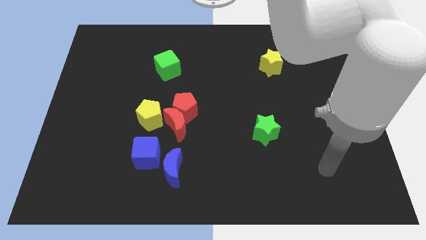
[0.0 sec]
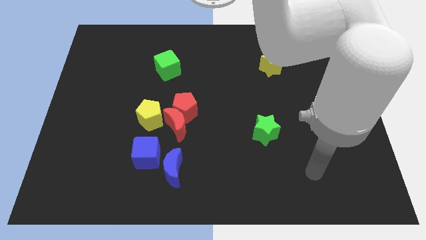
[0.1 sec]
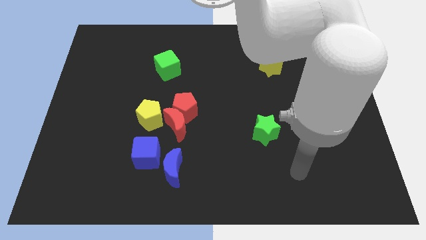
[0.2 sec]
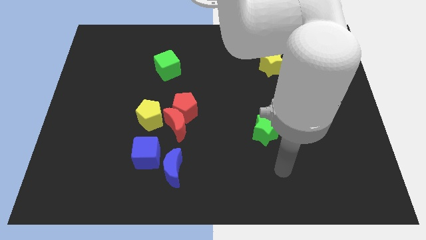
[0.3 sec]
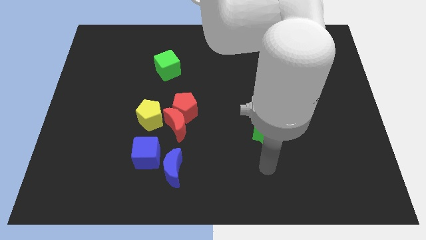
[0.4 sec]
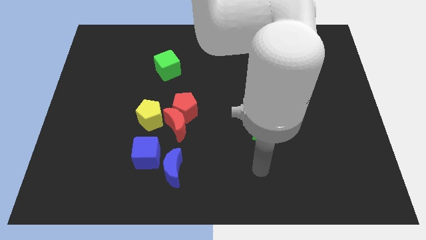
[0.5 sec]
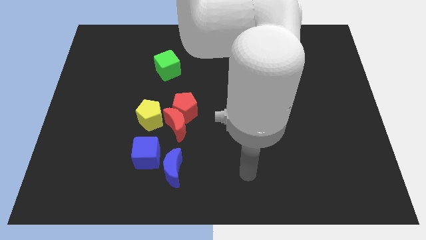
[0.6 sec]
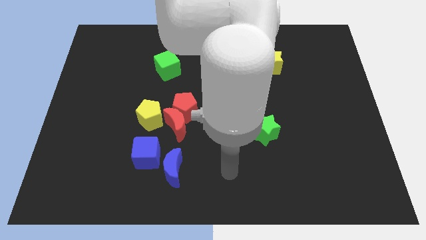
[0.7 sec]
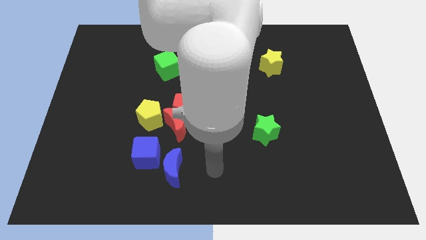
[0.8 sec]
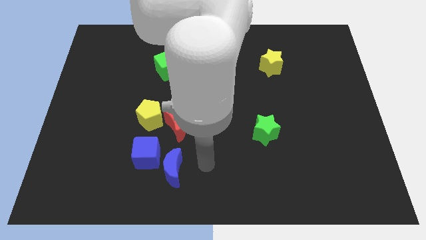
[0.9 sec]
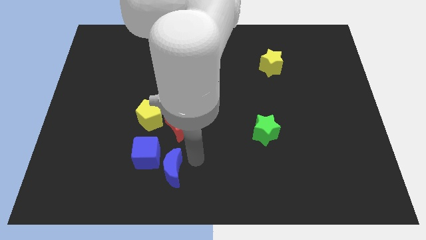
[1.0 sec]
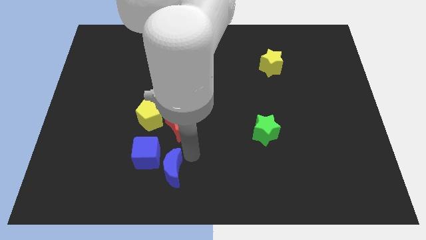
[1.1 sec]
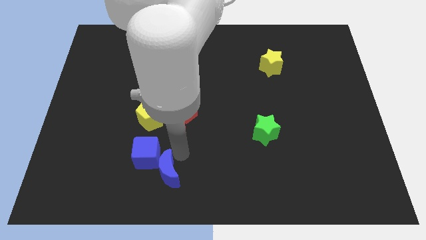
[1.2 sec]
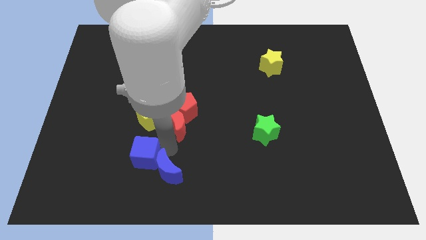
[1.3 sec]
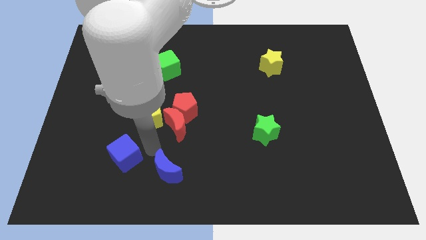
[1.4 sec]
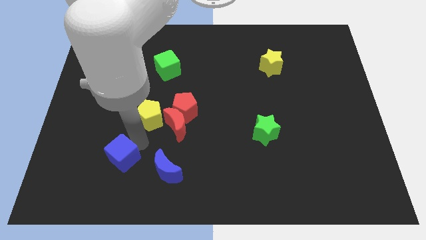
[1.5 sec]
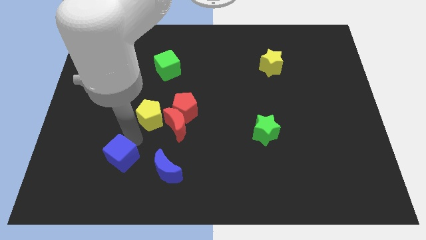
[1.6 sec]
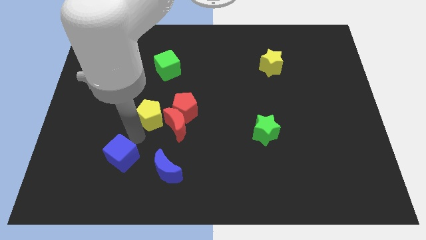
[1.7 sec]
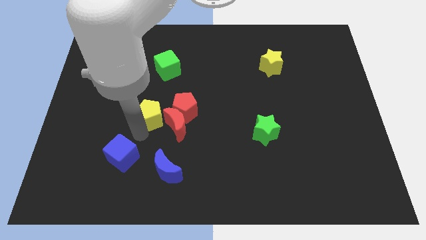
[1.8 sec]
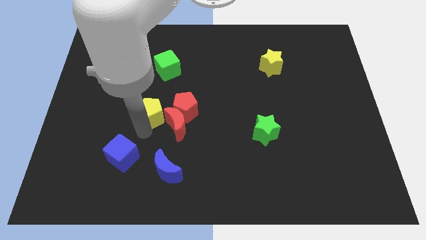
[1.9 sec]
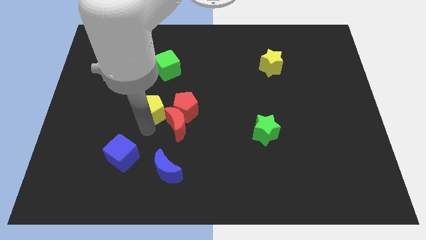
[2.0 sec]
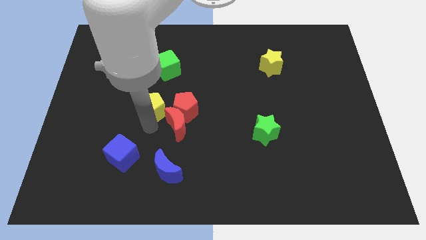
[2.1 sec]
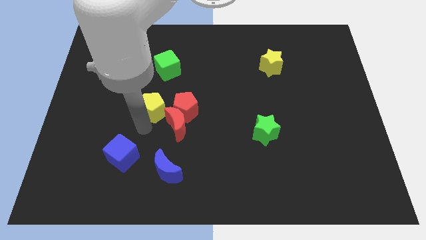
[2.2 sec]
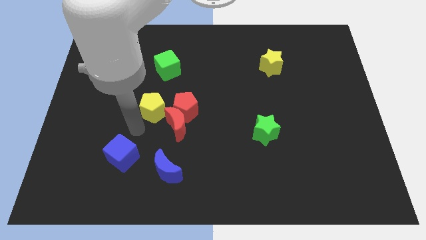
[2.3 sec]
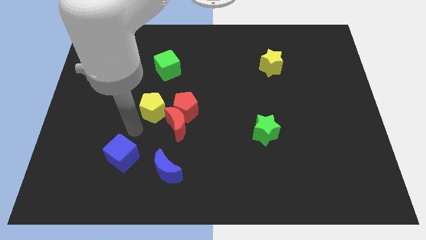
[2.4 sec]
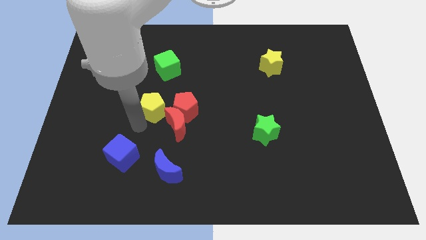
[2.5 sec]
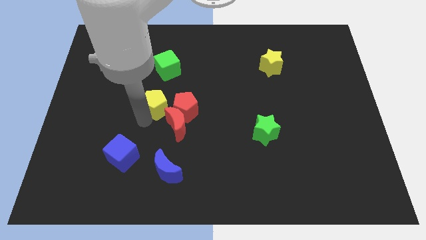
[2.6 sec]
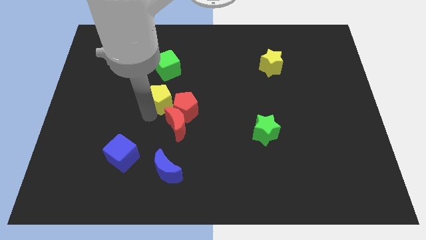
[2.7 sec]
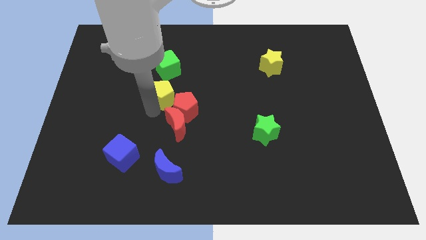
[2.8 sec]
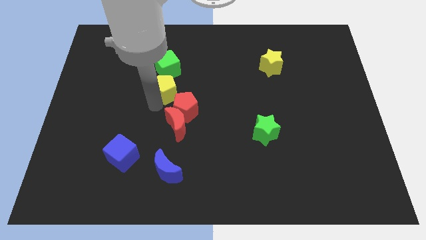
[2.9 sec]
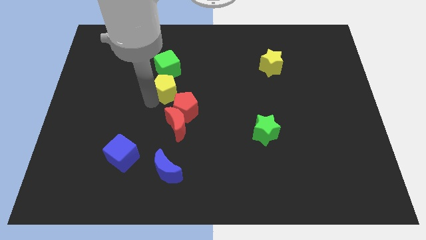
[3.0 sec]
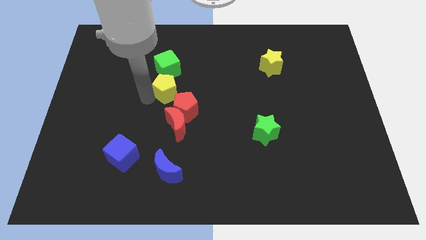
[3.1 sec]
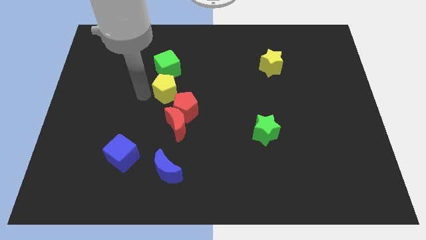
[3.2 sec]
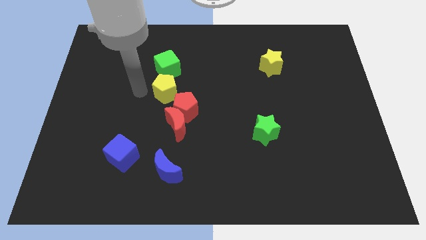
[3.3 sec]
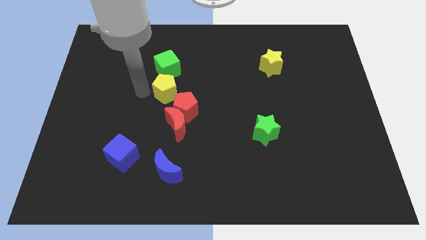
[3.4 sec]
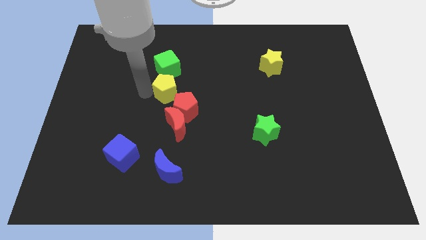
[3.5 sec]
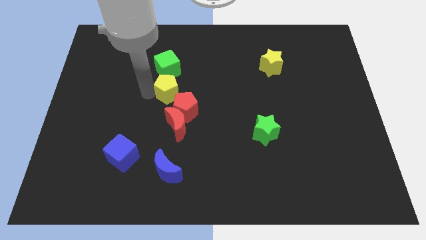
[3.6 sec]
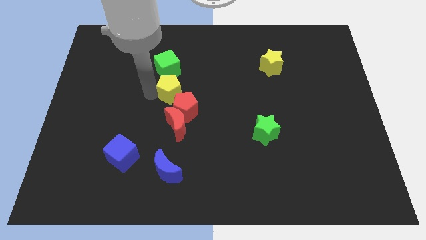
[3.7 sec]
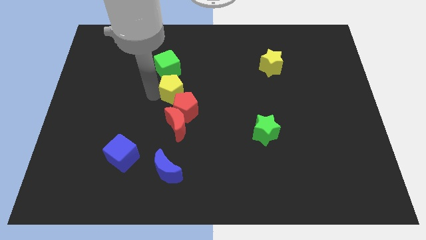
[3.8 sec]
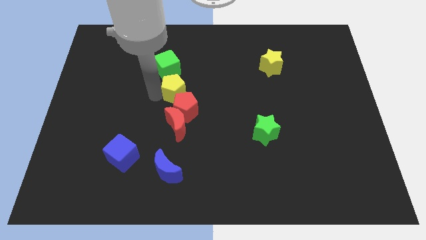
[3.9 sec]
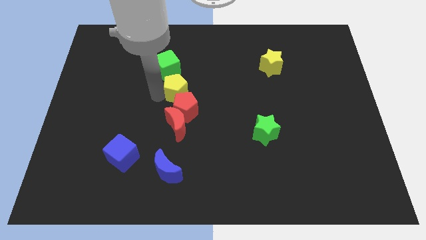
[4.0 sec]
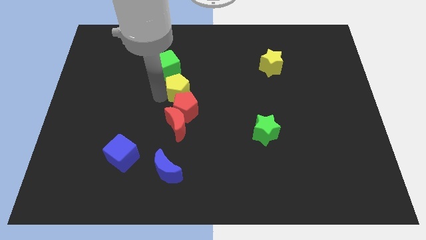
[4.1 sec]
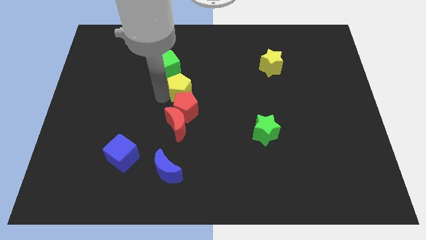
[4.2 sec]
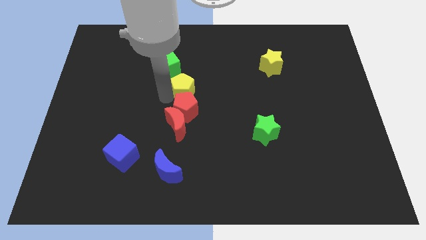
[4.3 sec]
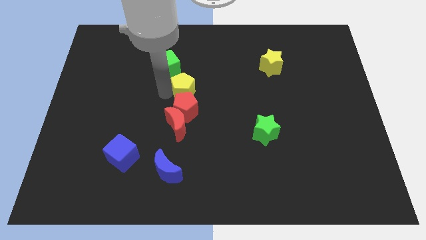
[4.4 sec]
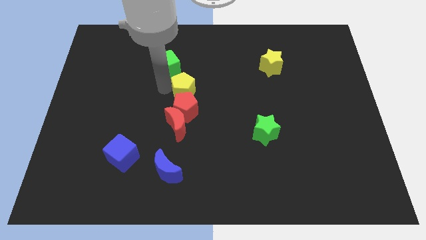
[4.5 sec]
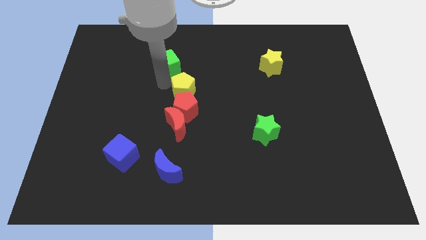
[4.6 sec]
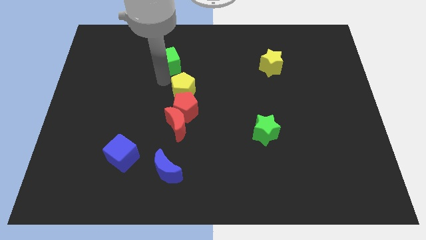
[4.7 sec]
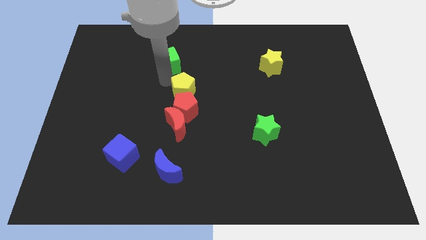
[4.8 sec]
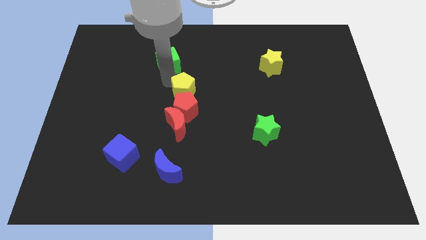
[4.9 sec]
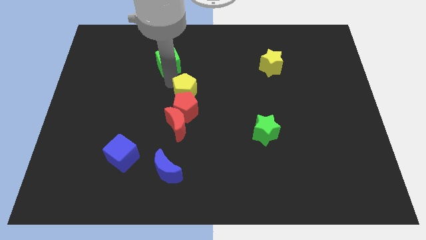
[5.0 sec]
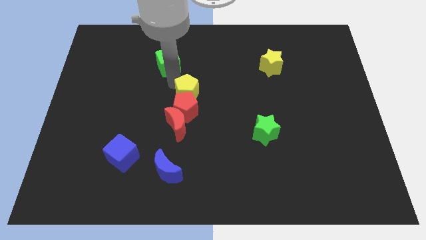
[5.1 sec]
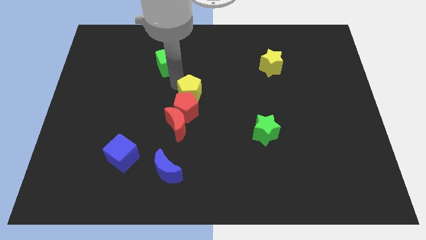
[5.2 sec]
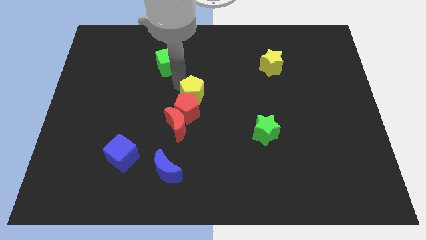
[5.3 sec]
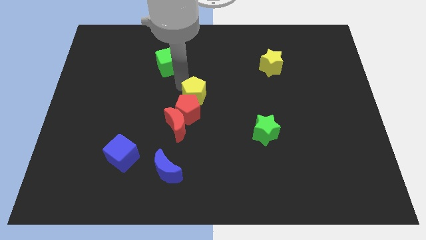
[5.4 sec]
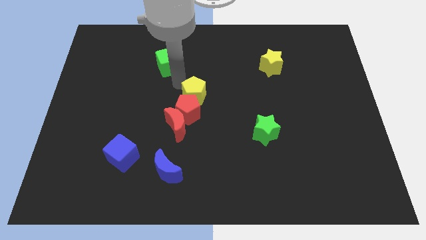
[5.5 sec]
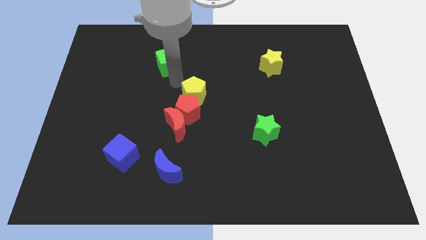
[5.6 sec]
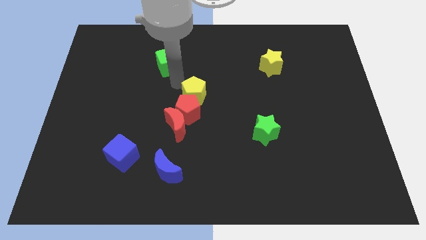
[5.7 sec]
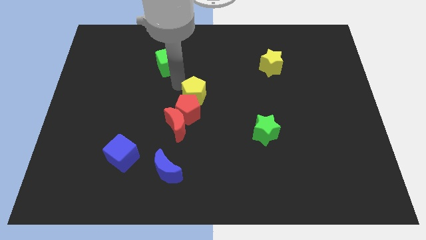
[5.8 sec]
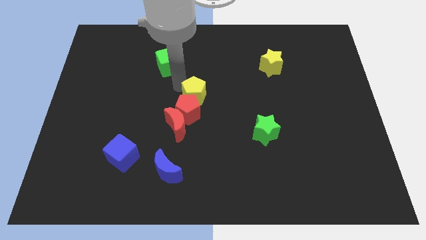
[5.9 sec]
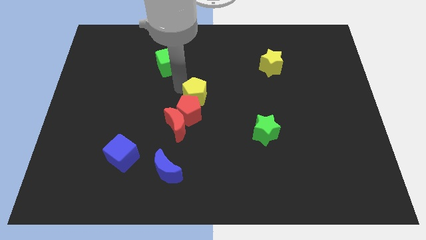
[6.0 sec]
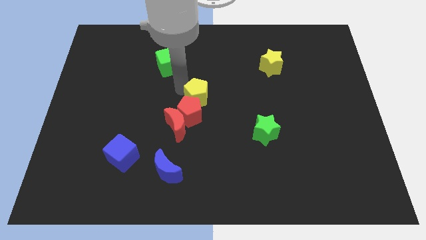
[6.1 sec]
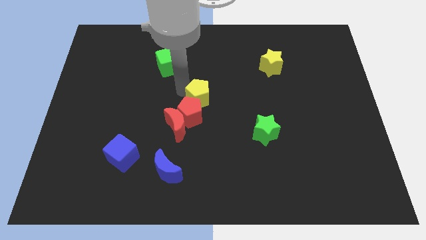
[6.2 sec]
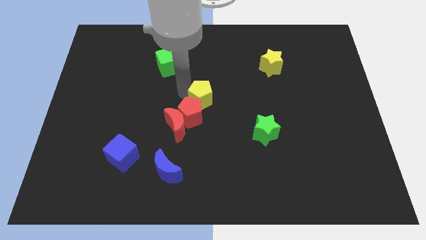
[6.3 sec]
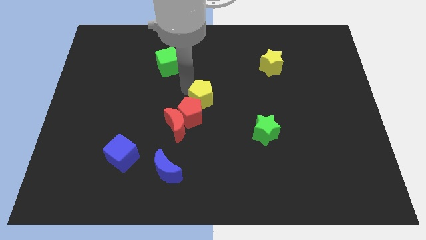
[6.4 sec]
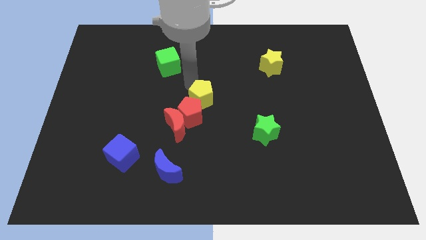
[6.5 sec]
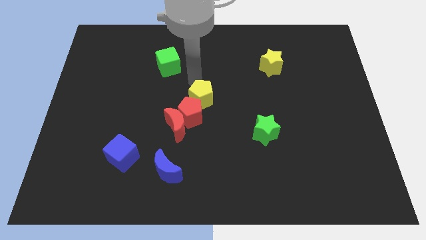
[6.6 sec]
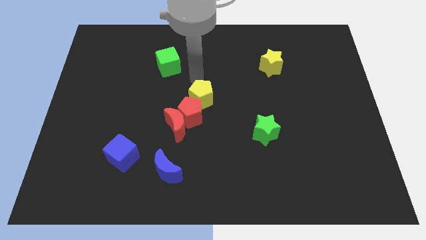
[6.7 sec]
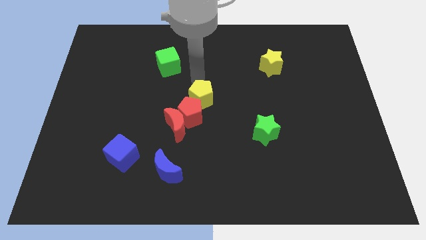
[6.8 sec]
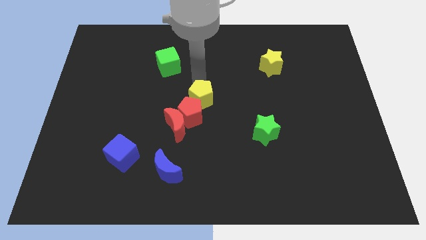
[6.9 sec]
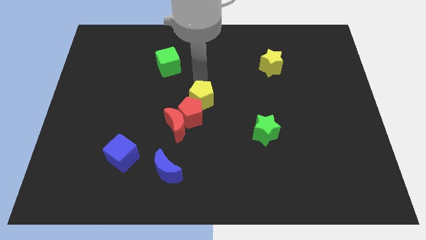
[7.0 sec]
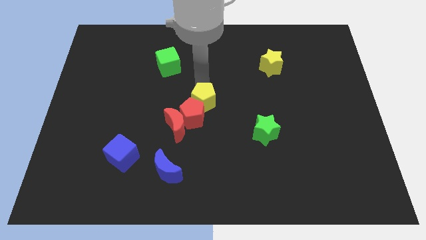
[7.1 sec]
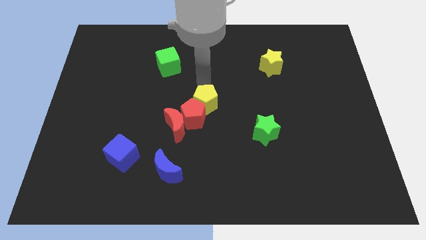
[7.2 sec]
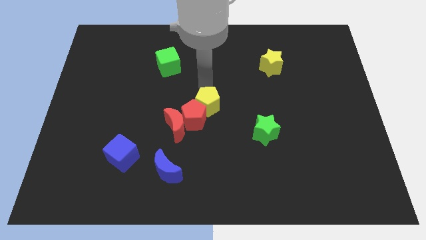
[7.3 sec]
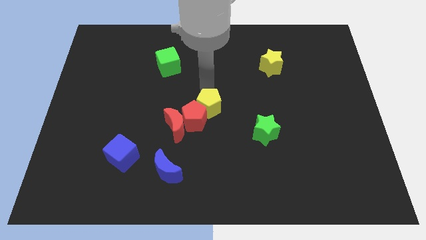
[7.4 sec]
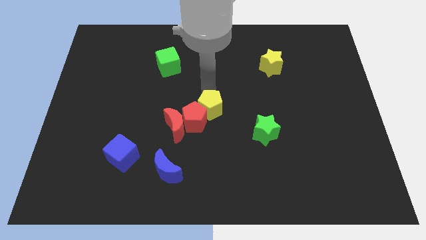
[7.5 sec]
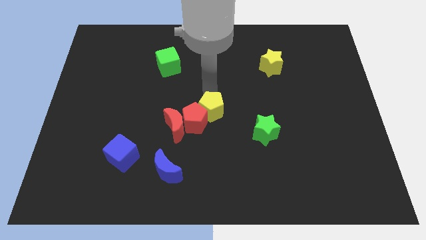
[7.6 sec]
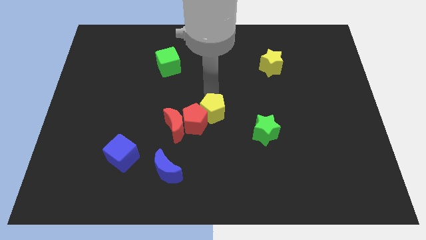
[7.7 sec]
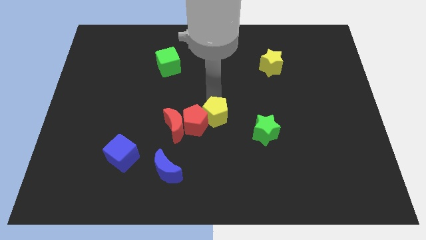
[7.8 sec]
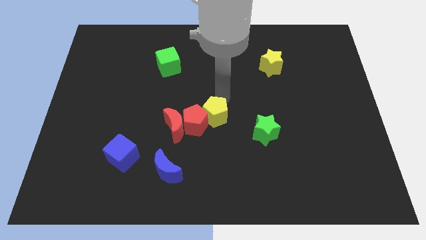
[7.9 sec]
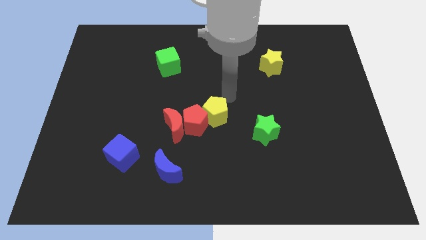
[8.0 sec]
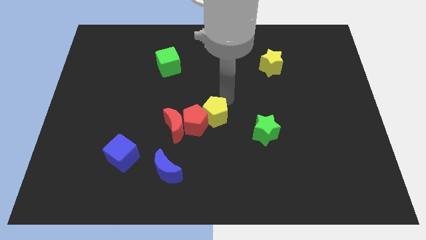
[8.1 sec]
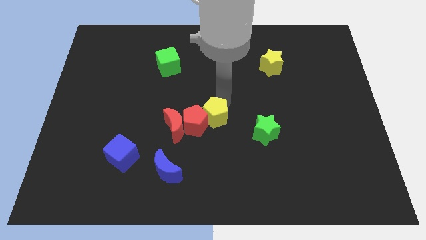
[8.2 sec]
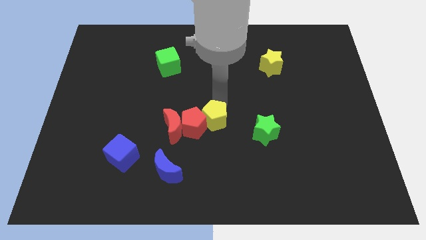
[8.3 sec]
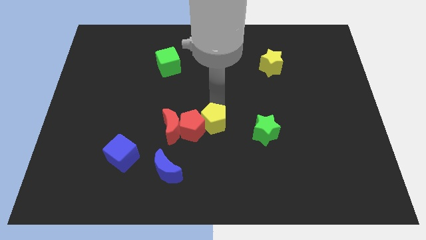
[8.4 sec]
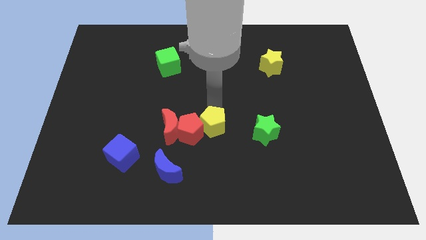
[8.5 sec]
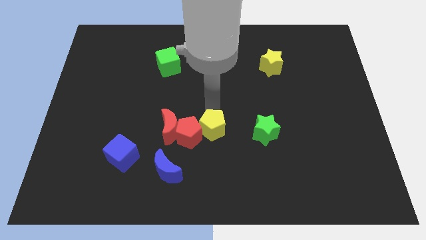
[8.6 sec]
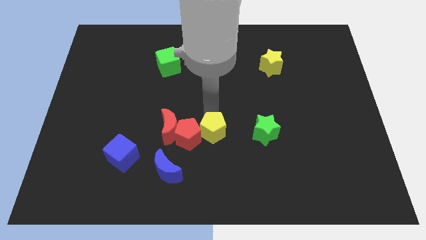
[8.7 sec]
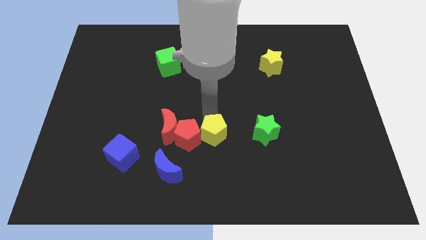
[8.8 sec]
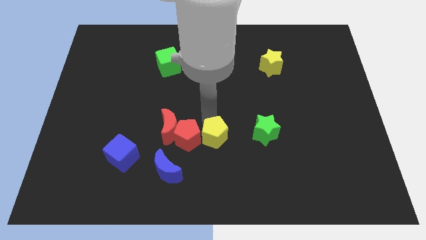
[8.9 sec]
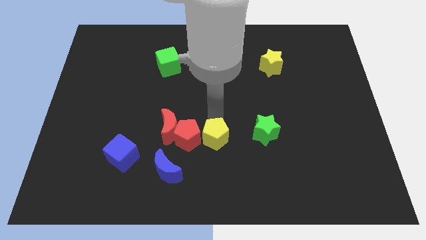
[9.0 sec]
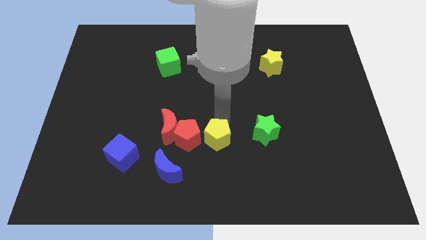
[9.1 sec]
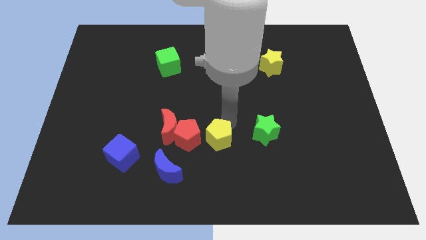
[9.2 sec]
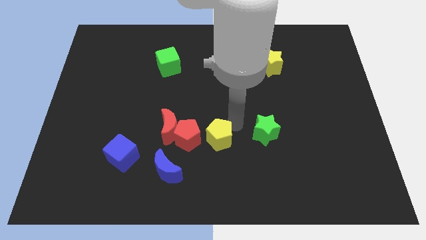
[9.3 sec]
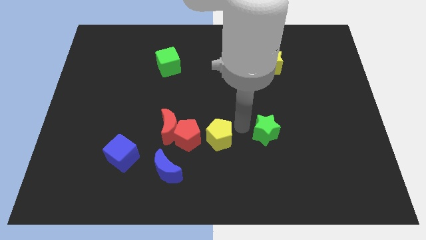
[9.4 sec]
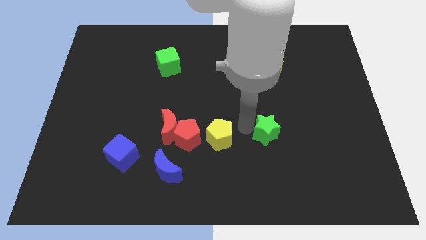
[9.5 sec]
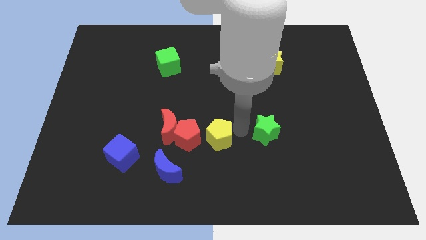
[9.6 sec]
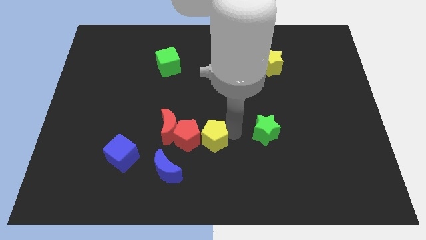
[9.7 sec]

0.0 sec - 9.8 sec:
move the yellow pentagon to the top right side of the blue moon
